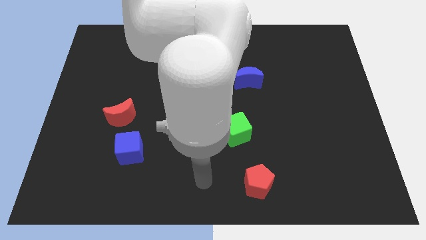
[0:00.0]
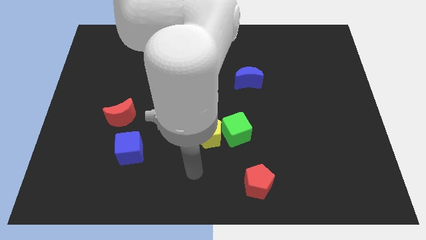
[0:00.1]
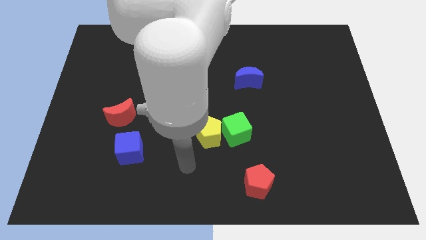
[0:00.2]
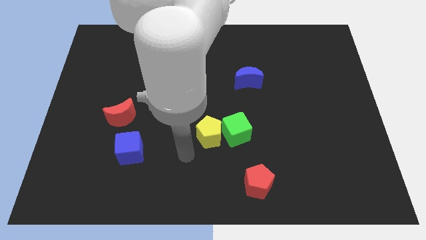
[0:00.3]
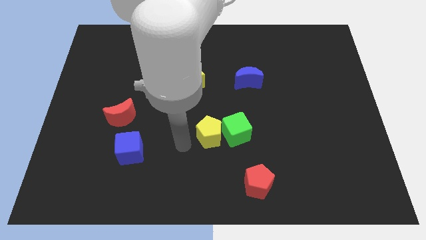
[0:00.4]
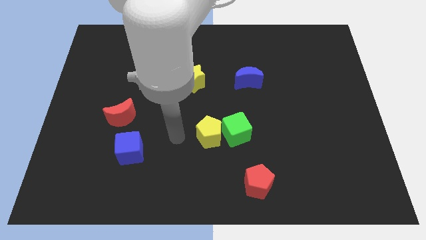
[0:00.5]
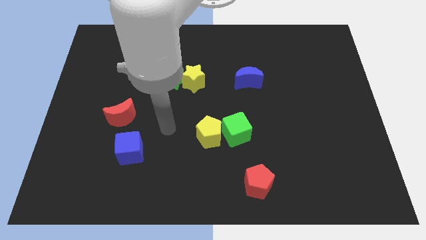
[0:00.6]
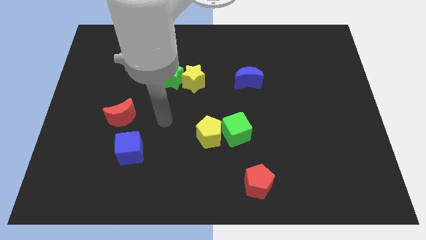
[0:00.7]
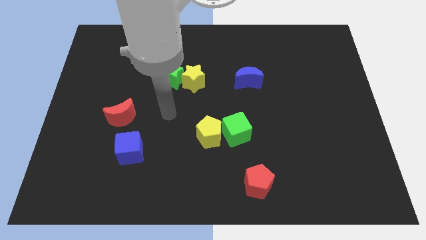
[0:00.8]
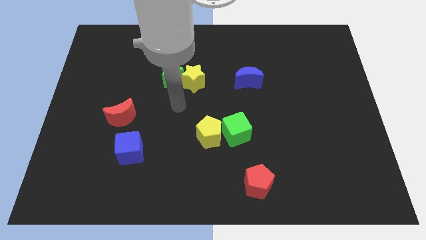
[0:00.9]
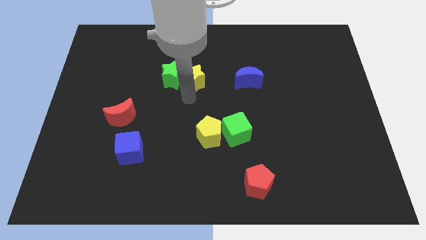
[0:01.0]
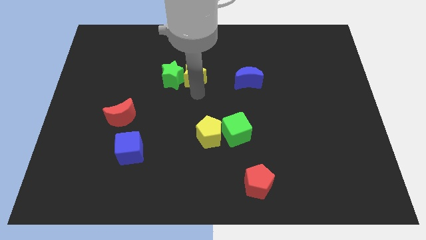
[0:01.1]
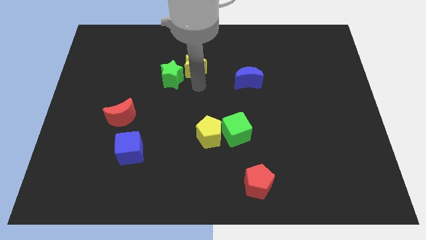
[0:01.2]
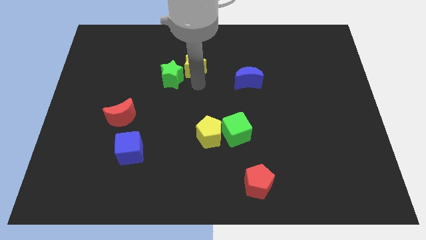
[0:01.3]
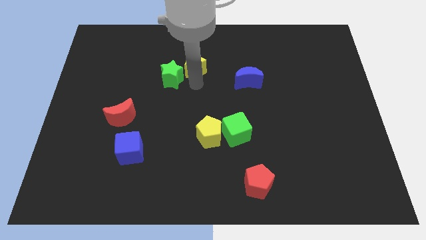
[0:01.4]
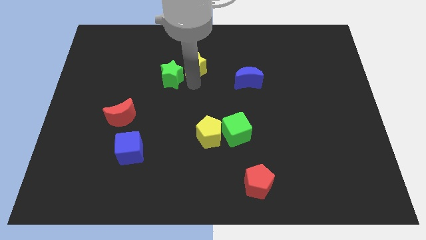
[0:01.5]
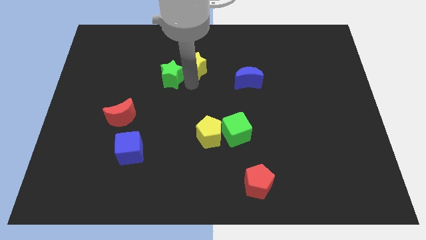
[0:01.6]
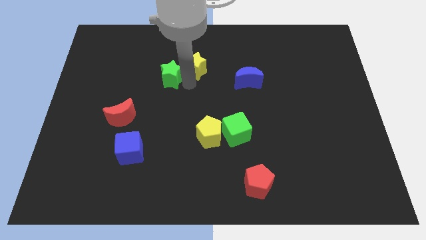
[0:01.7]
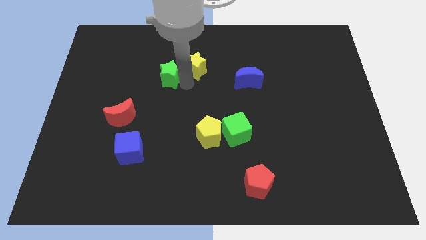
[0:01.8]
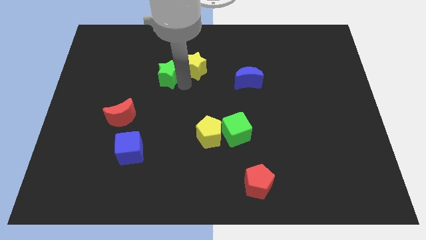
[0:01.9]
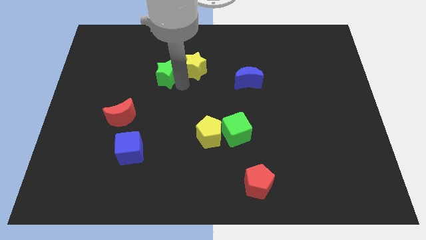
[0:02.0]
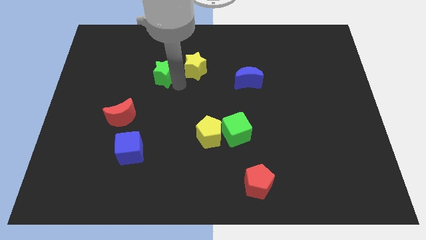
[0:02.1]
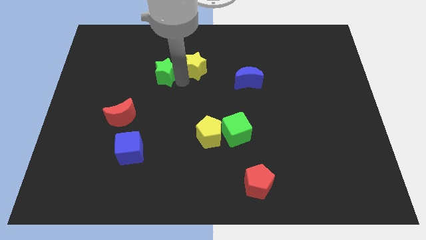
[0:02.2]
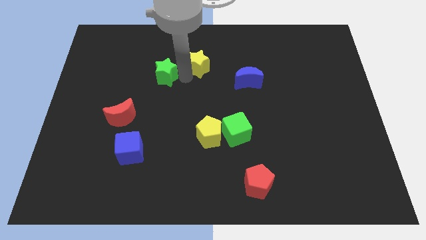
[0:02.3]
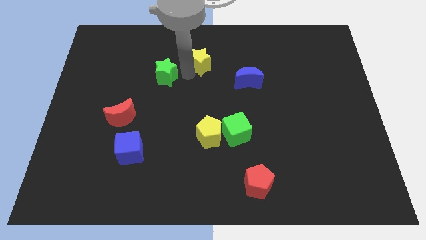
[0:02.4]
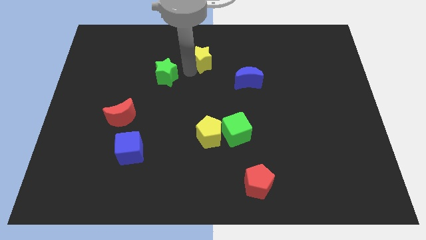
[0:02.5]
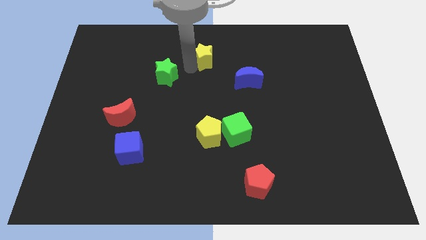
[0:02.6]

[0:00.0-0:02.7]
pull the green star apart from the yellow star

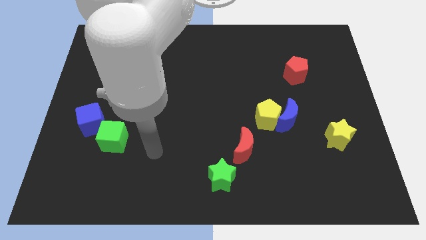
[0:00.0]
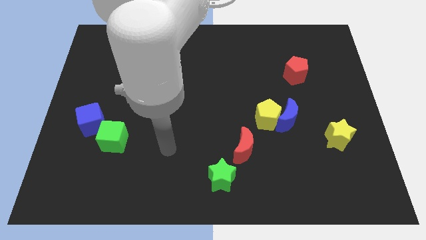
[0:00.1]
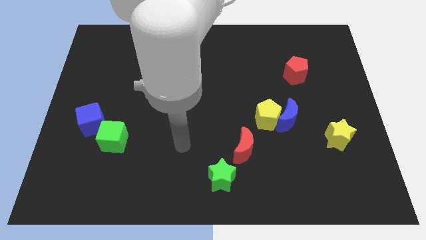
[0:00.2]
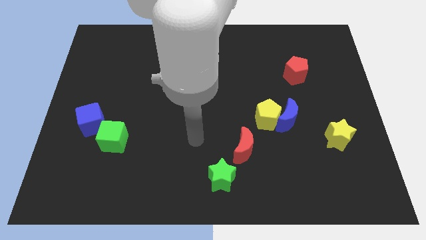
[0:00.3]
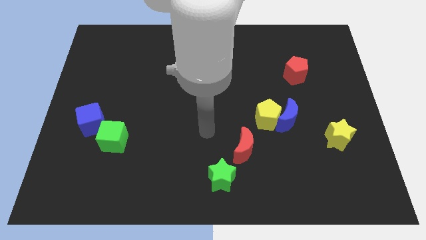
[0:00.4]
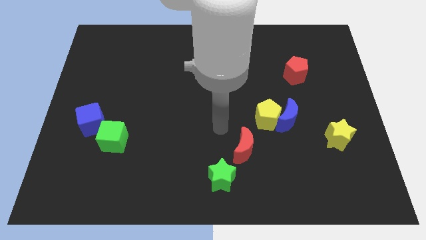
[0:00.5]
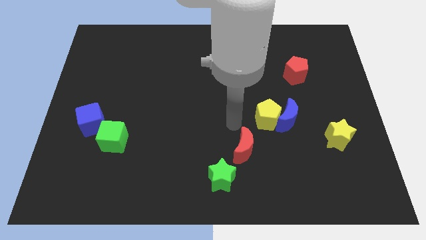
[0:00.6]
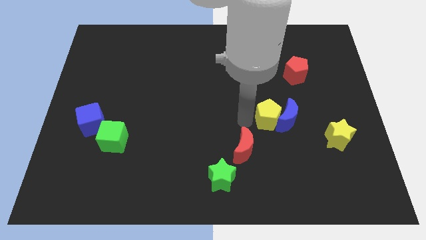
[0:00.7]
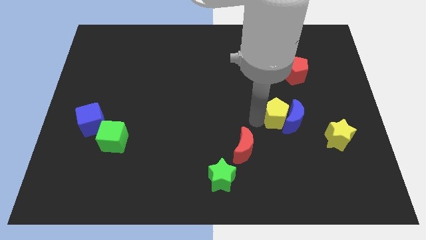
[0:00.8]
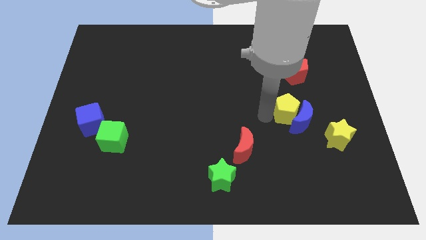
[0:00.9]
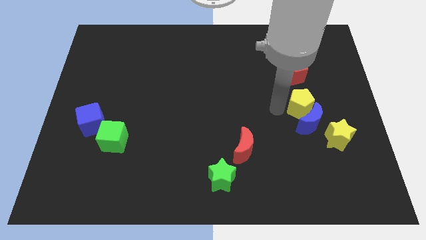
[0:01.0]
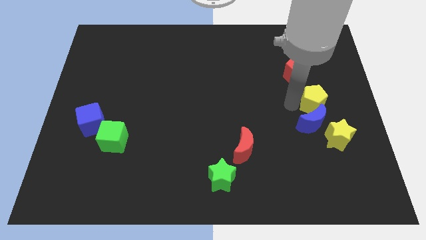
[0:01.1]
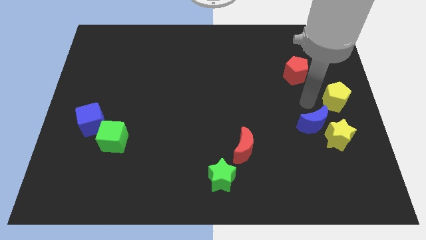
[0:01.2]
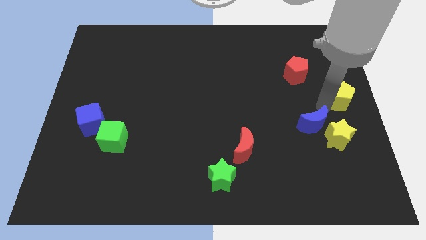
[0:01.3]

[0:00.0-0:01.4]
separate the blue moon from the yellow pentagon

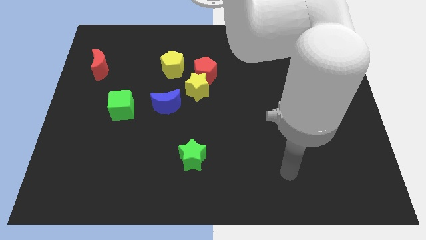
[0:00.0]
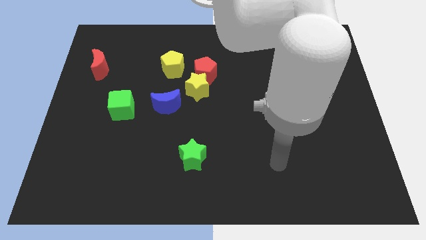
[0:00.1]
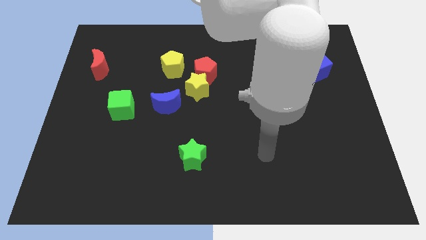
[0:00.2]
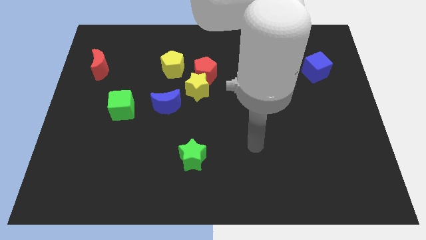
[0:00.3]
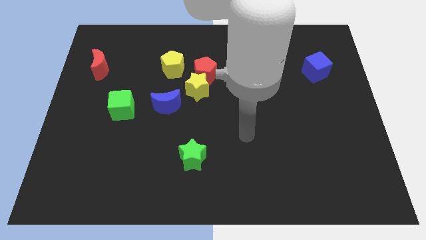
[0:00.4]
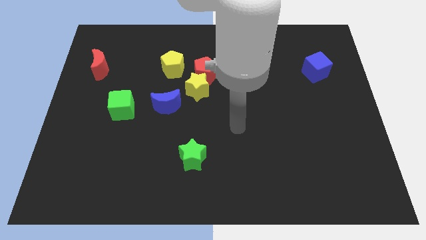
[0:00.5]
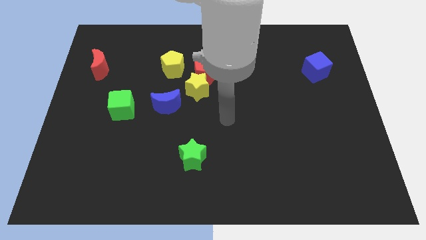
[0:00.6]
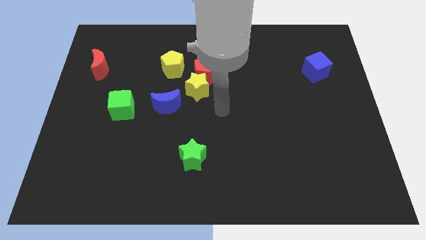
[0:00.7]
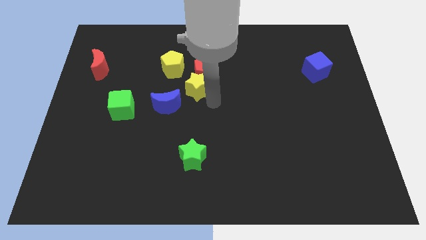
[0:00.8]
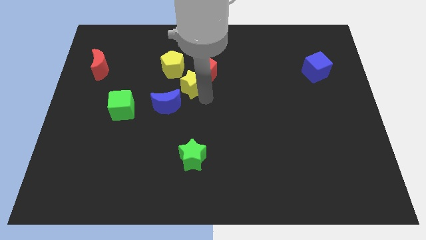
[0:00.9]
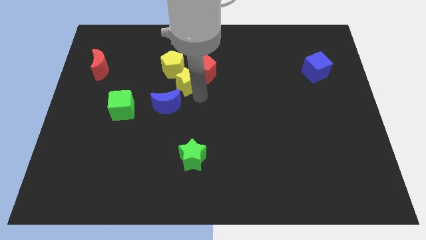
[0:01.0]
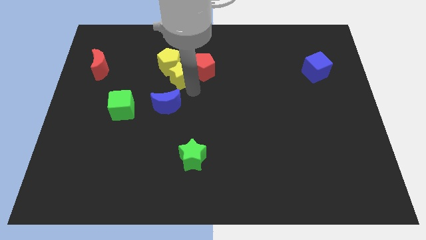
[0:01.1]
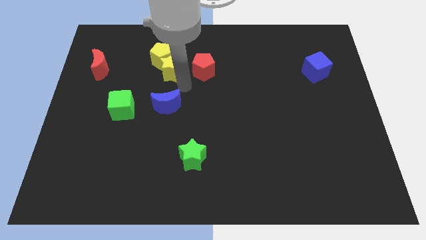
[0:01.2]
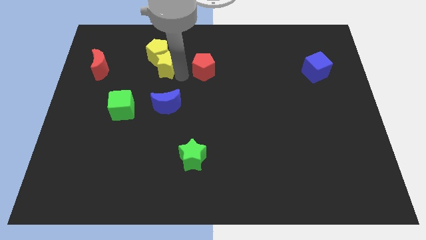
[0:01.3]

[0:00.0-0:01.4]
move the red pentagon away from the yellow star and yellow pentagon

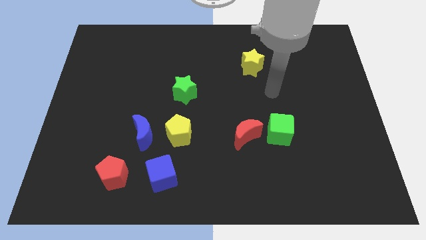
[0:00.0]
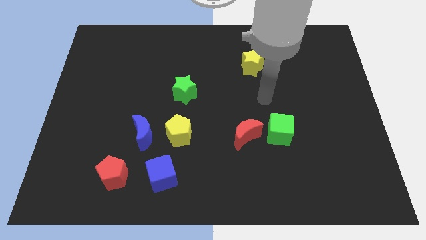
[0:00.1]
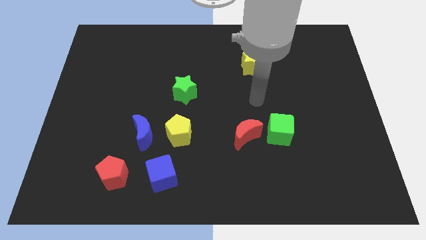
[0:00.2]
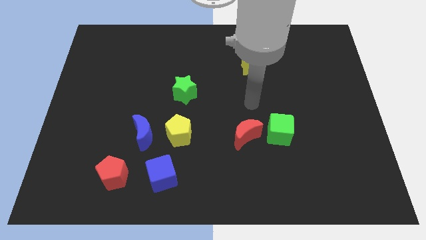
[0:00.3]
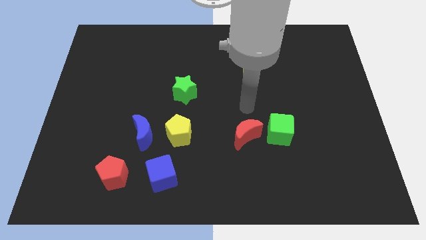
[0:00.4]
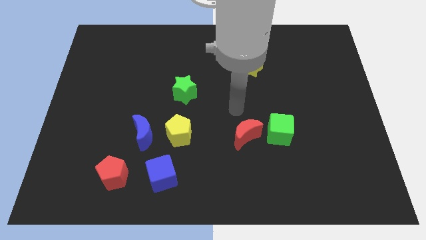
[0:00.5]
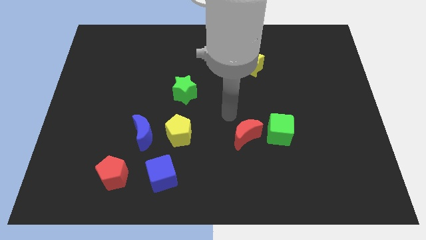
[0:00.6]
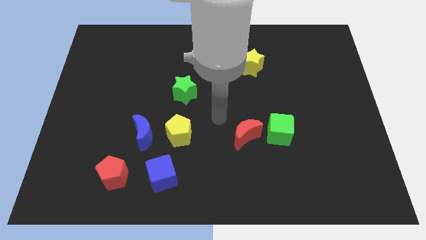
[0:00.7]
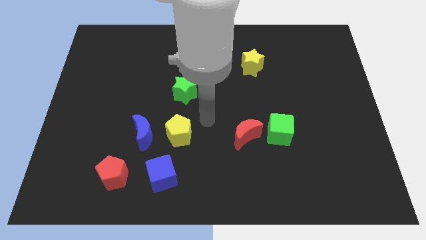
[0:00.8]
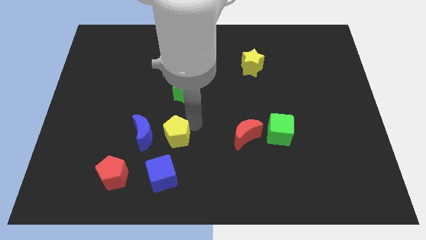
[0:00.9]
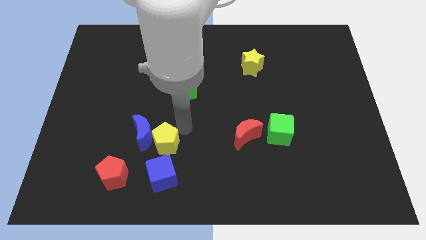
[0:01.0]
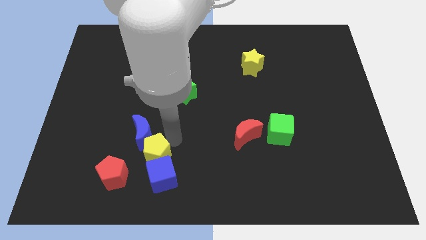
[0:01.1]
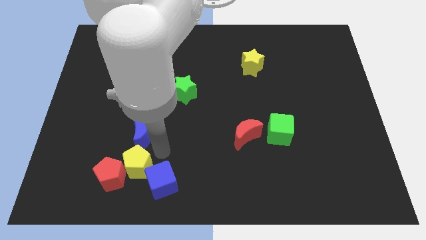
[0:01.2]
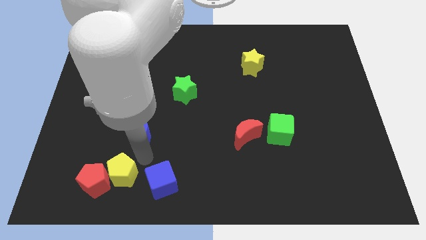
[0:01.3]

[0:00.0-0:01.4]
move the blue moon away from the yellow pentagon

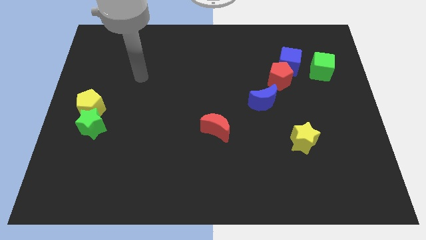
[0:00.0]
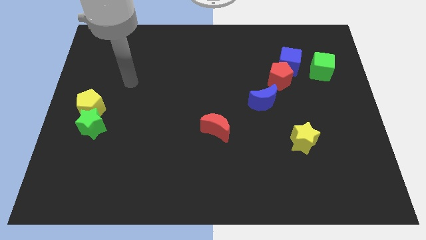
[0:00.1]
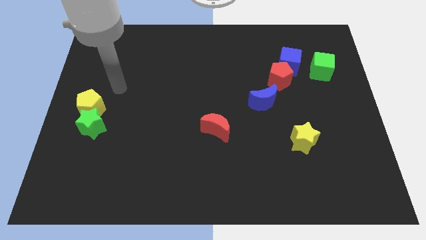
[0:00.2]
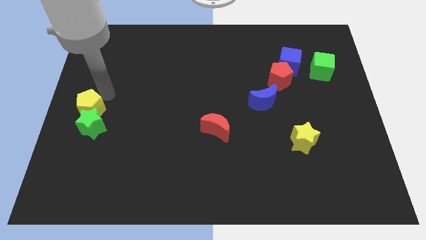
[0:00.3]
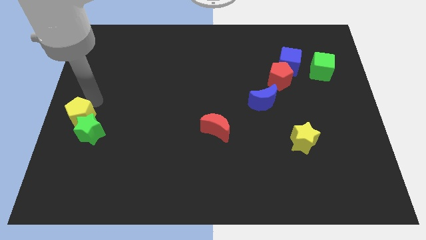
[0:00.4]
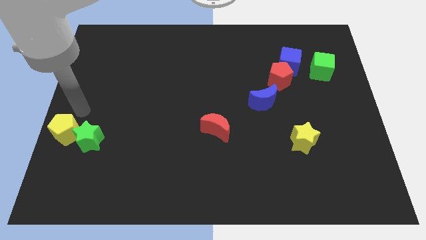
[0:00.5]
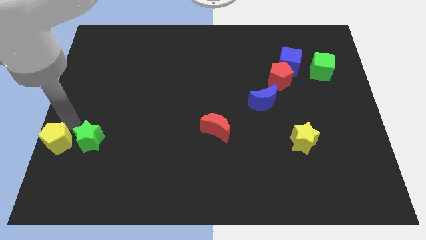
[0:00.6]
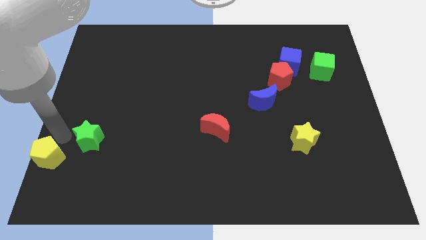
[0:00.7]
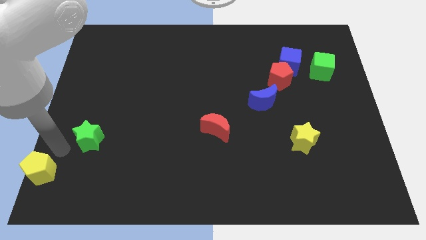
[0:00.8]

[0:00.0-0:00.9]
pull the green star apart from the yellow pentagon

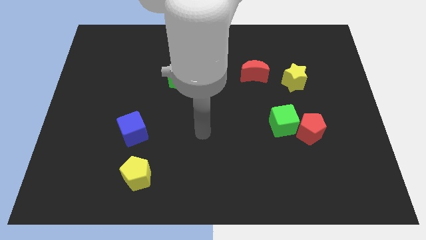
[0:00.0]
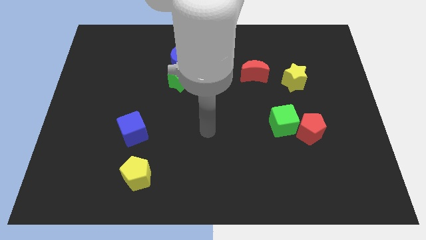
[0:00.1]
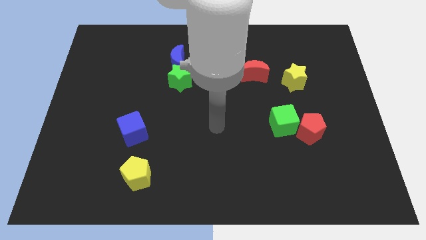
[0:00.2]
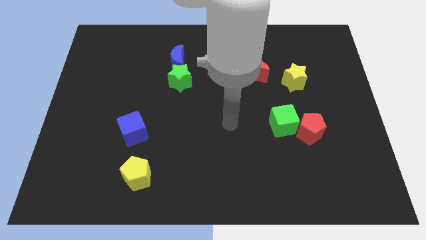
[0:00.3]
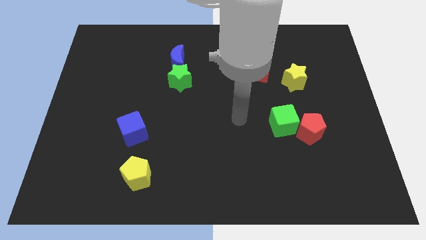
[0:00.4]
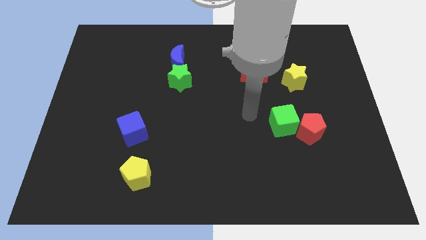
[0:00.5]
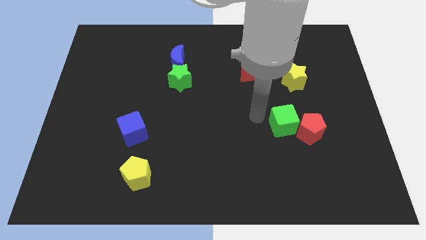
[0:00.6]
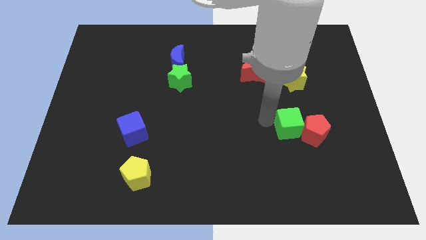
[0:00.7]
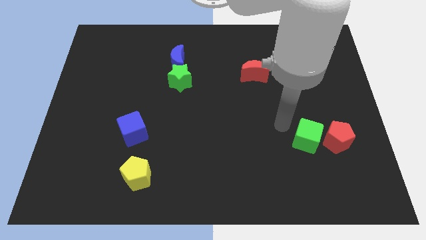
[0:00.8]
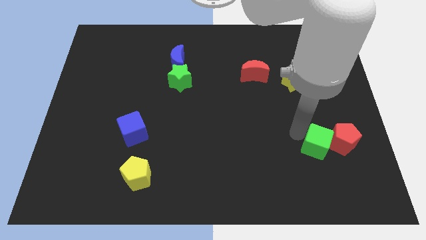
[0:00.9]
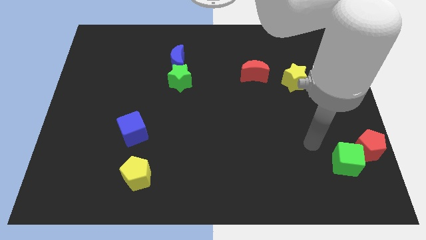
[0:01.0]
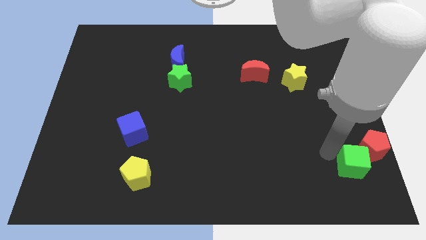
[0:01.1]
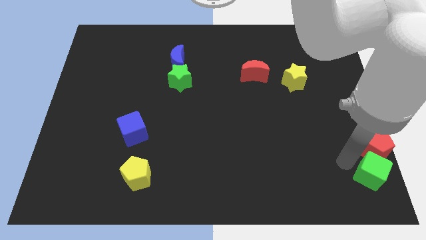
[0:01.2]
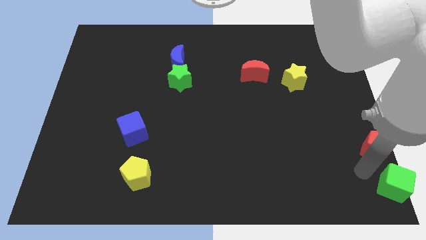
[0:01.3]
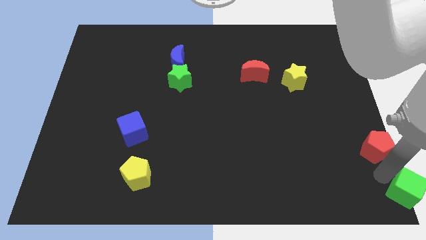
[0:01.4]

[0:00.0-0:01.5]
separate the red pentagon from the green cube
